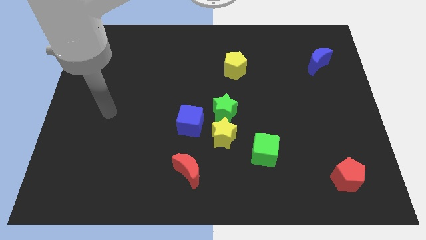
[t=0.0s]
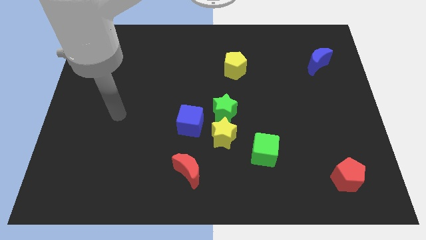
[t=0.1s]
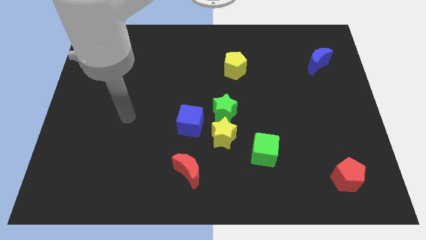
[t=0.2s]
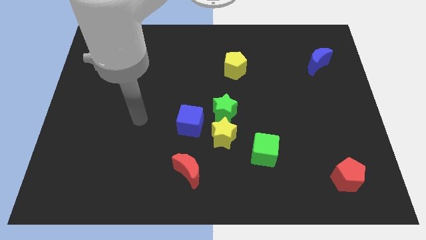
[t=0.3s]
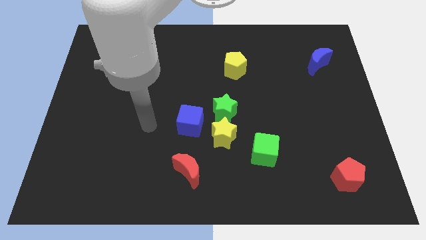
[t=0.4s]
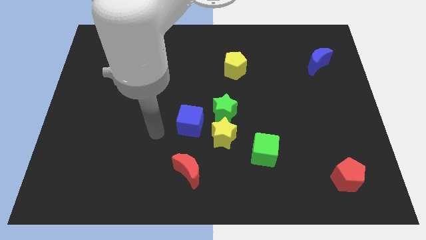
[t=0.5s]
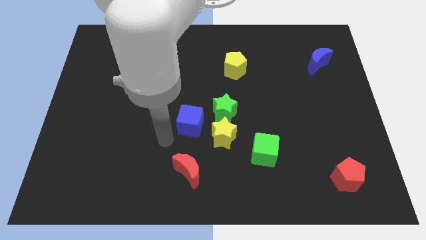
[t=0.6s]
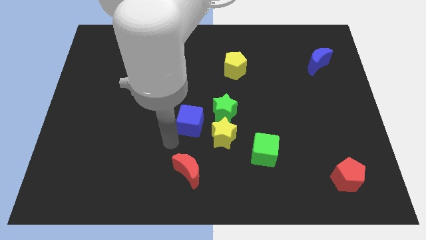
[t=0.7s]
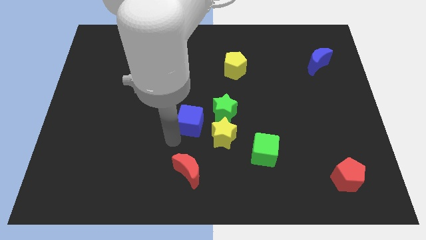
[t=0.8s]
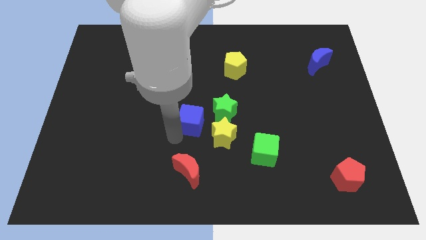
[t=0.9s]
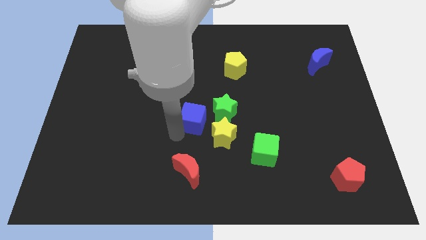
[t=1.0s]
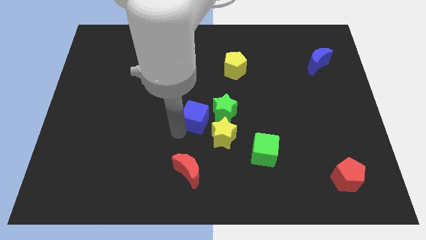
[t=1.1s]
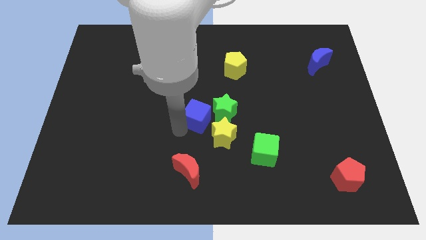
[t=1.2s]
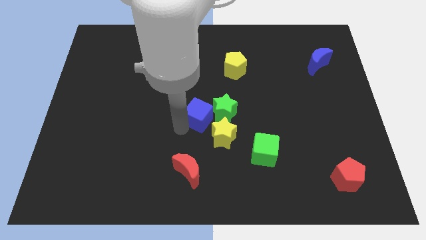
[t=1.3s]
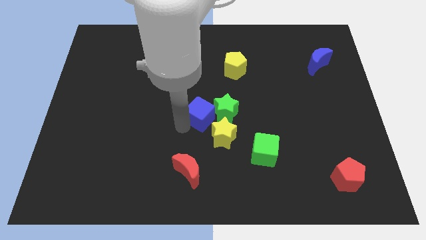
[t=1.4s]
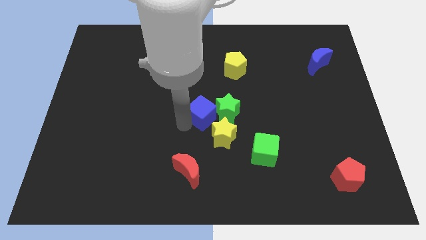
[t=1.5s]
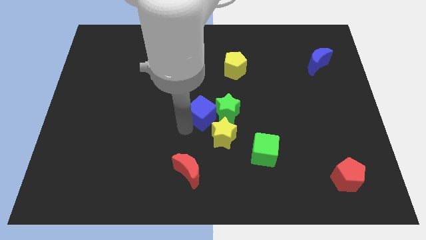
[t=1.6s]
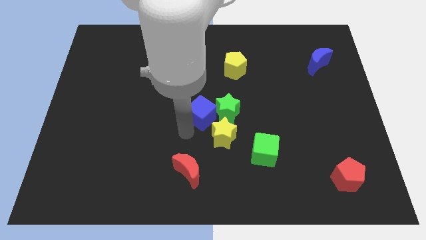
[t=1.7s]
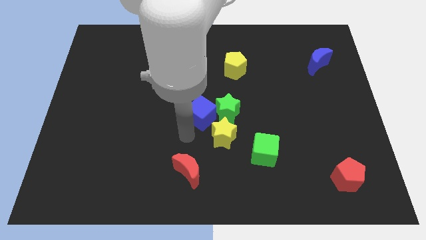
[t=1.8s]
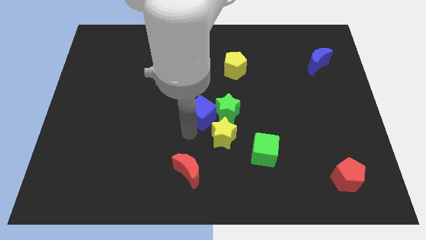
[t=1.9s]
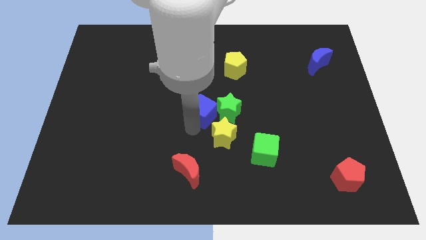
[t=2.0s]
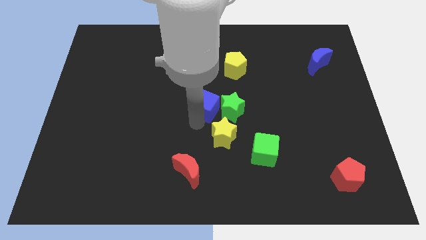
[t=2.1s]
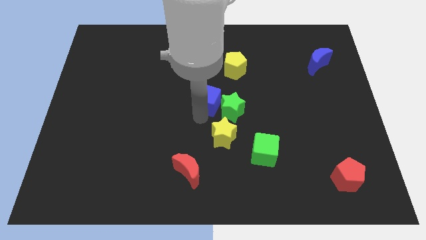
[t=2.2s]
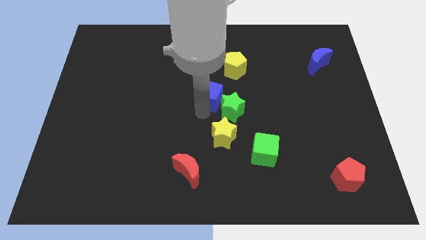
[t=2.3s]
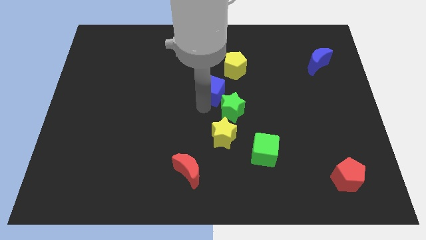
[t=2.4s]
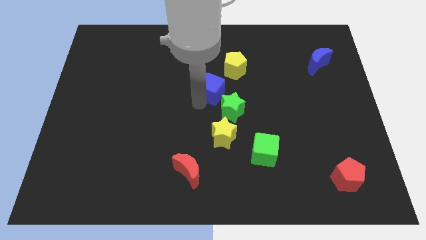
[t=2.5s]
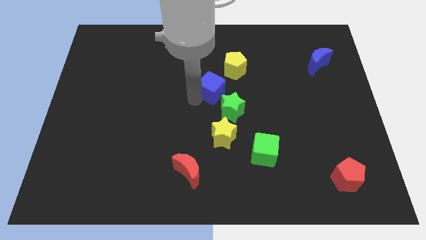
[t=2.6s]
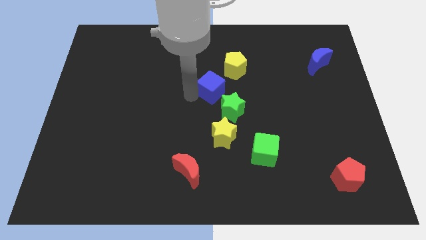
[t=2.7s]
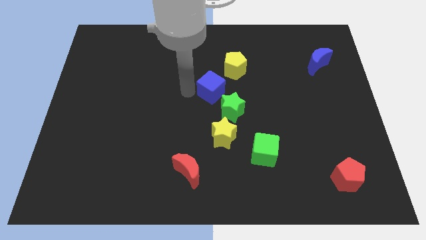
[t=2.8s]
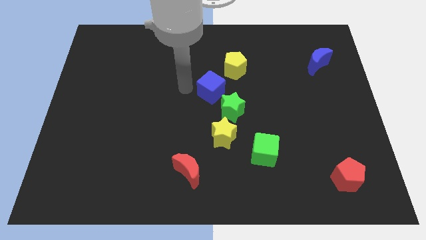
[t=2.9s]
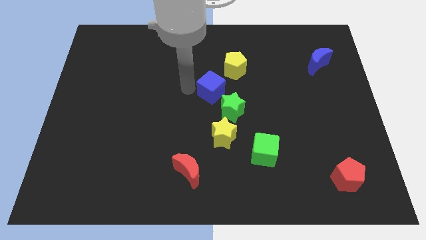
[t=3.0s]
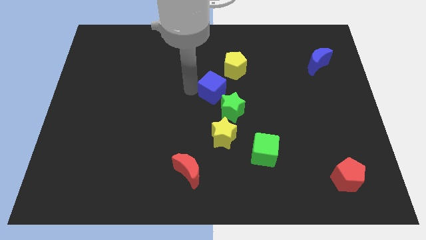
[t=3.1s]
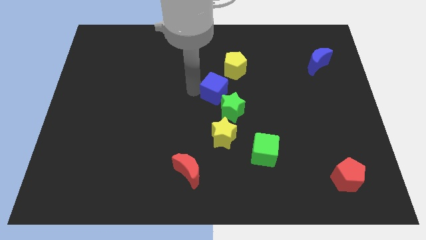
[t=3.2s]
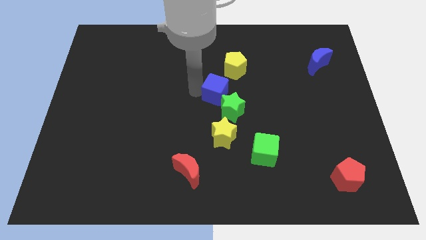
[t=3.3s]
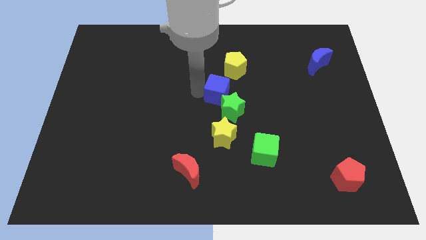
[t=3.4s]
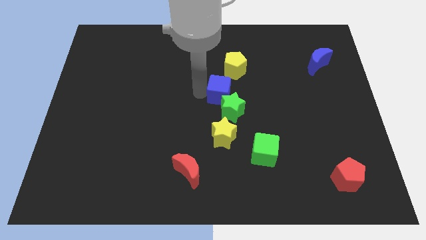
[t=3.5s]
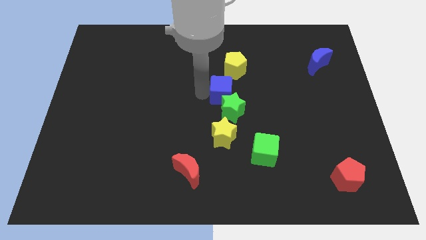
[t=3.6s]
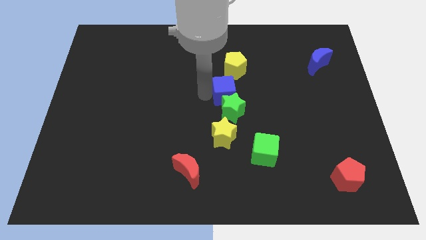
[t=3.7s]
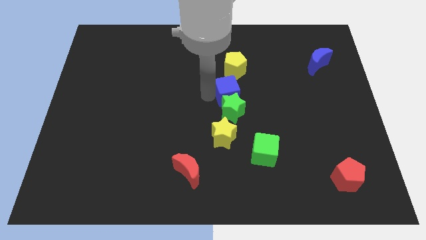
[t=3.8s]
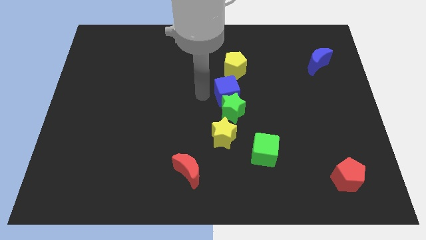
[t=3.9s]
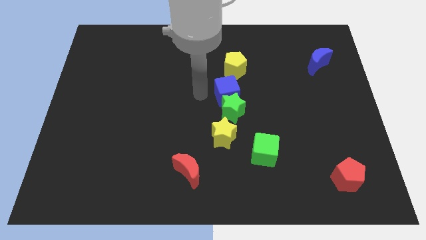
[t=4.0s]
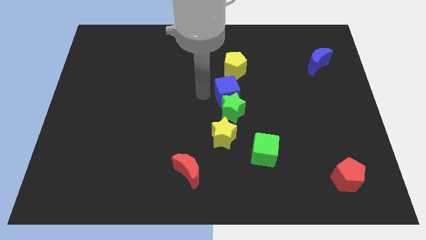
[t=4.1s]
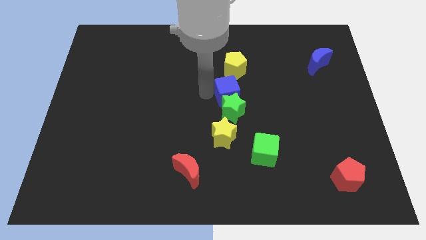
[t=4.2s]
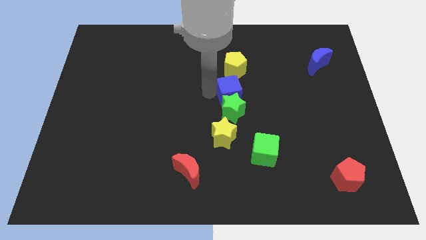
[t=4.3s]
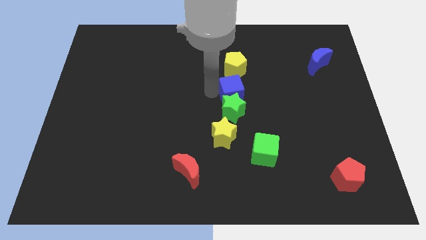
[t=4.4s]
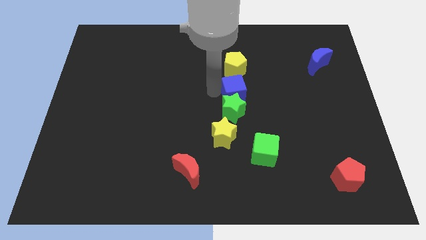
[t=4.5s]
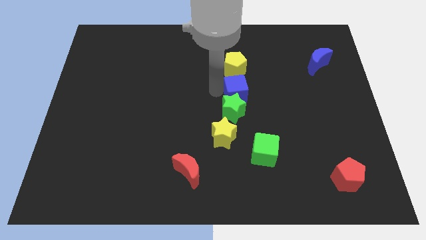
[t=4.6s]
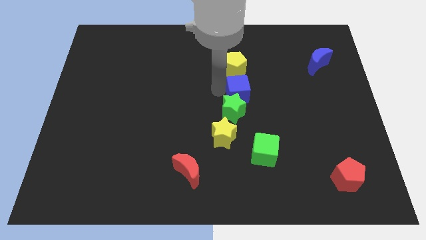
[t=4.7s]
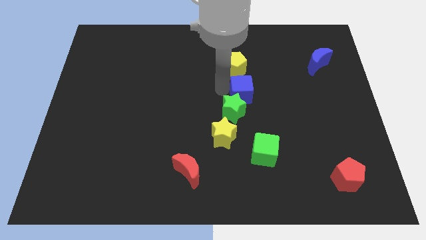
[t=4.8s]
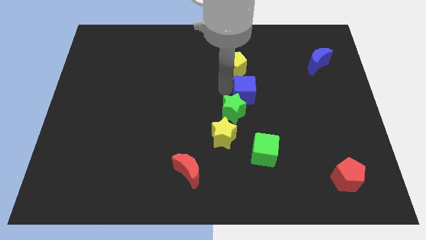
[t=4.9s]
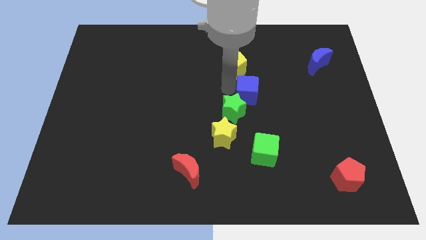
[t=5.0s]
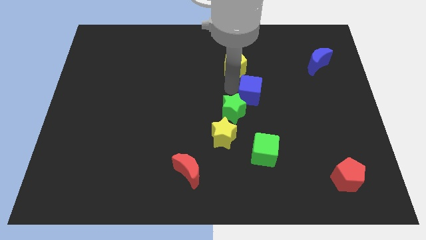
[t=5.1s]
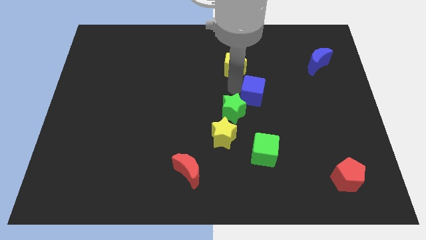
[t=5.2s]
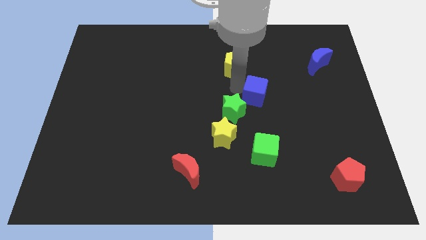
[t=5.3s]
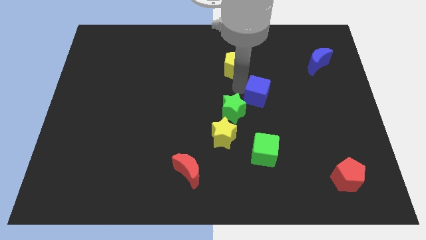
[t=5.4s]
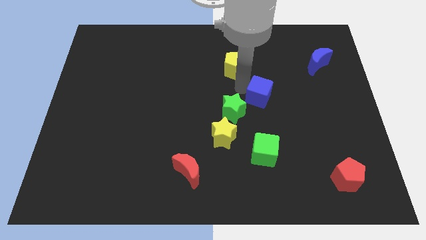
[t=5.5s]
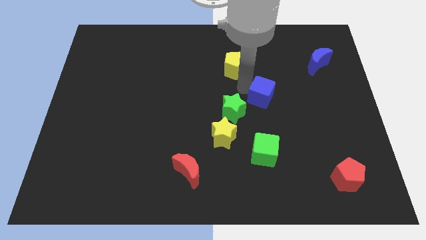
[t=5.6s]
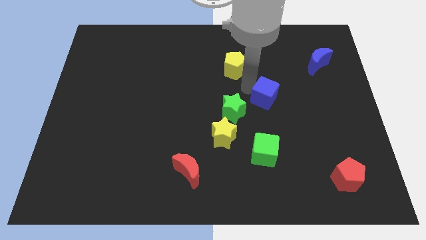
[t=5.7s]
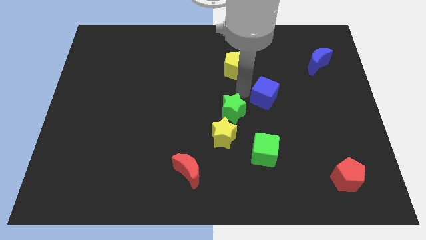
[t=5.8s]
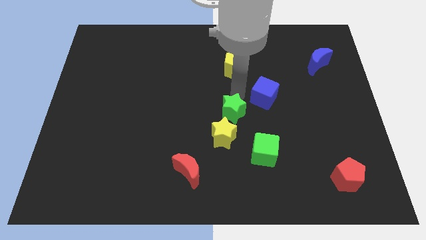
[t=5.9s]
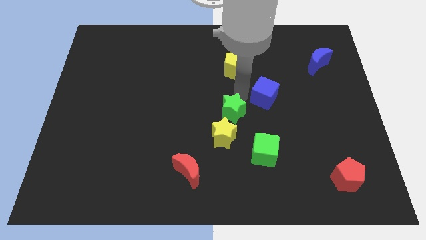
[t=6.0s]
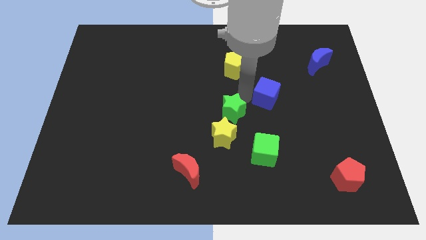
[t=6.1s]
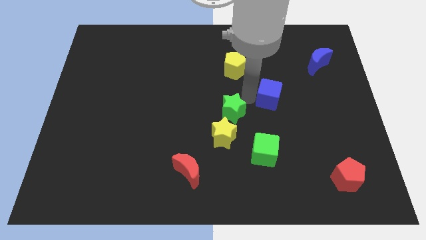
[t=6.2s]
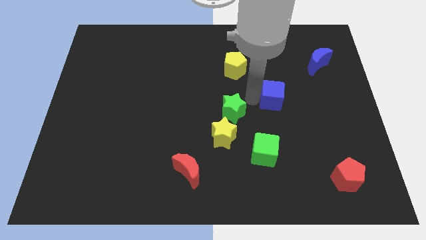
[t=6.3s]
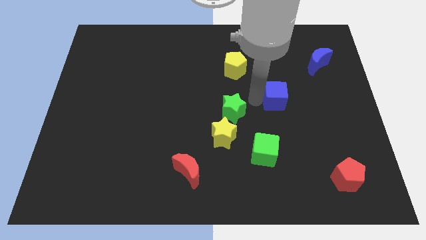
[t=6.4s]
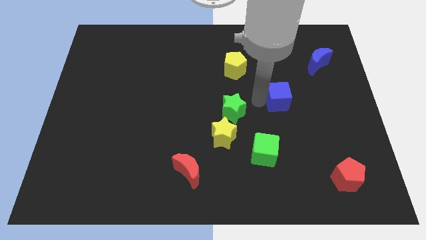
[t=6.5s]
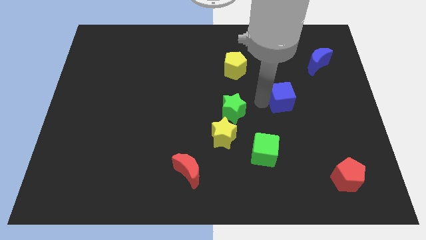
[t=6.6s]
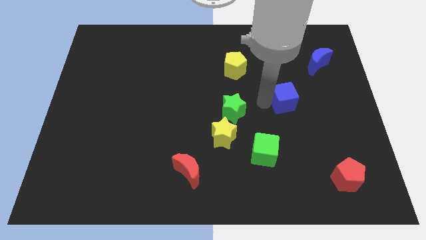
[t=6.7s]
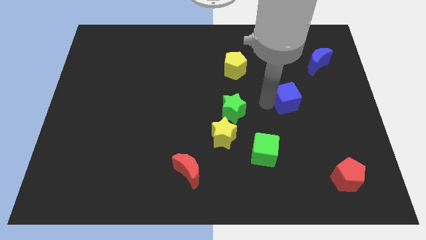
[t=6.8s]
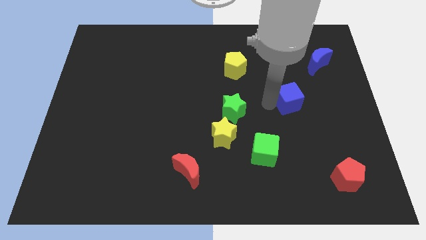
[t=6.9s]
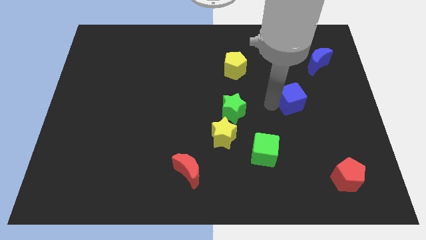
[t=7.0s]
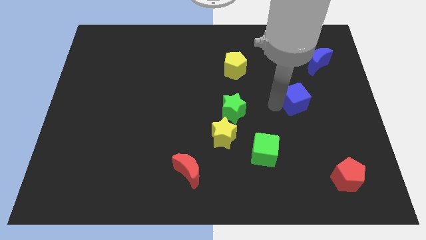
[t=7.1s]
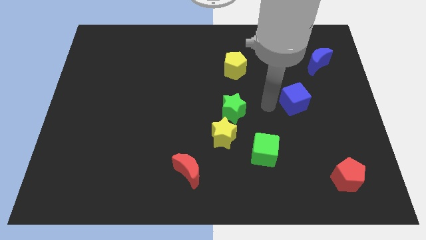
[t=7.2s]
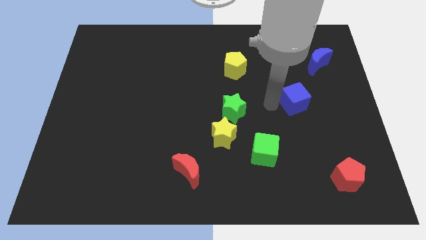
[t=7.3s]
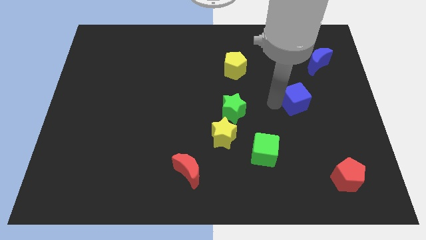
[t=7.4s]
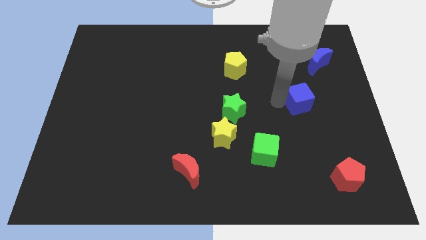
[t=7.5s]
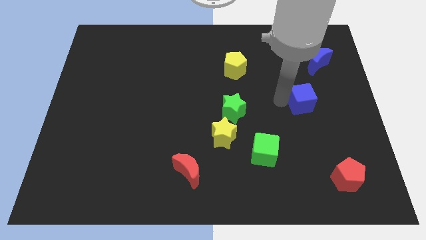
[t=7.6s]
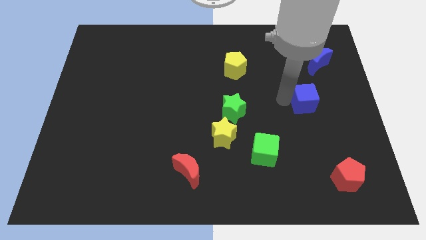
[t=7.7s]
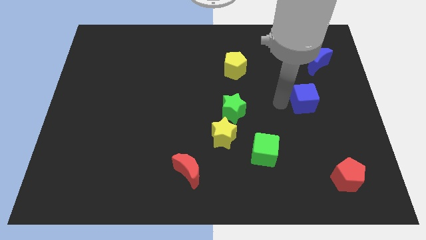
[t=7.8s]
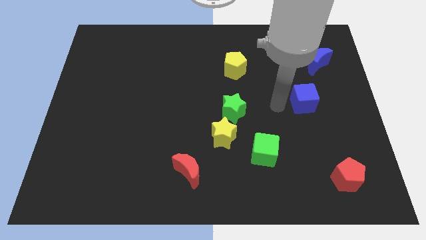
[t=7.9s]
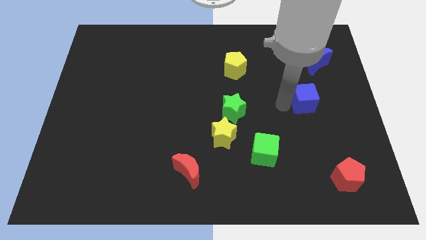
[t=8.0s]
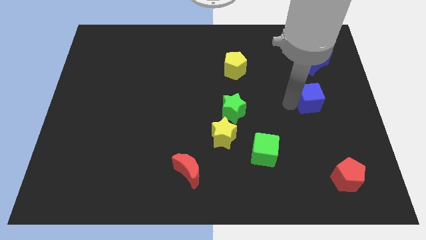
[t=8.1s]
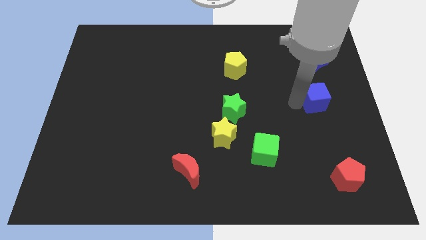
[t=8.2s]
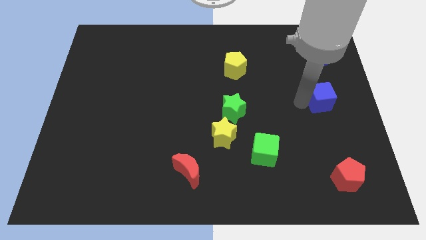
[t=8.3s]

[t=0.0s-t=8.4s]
slide the blue cube to the center right
